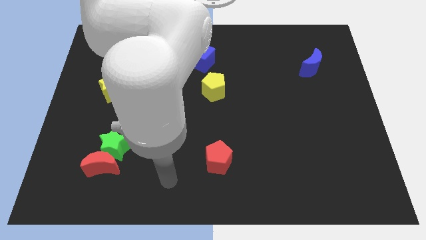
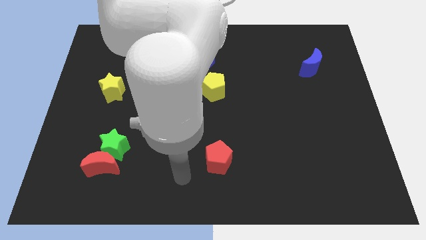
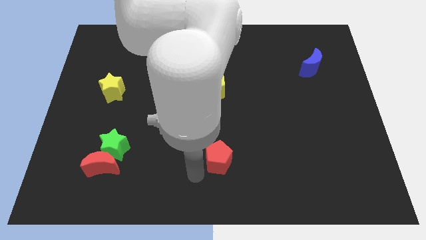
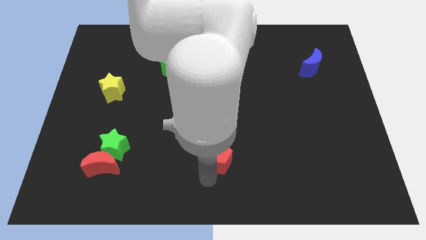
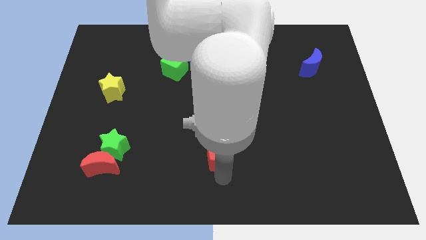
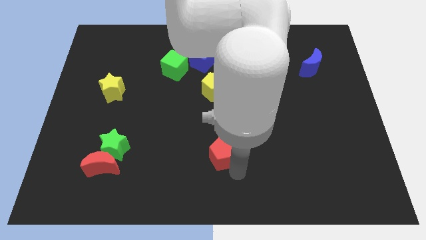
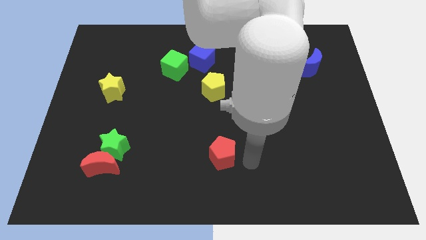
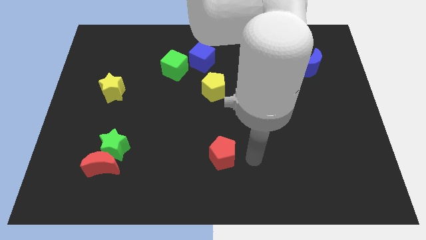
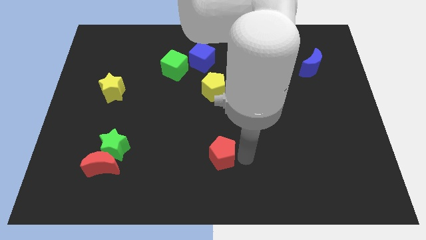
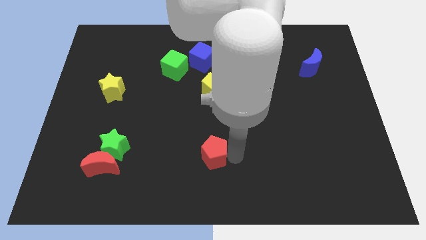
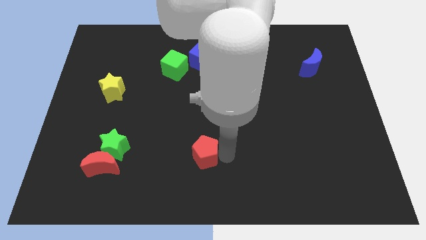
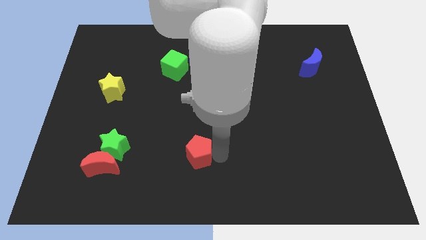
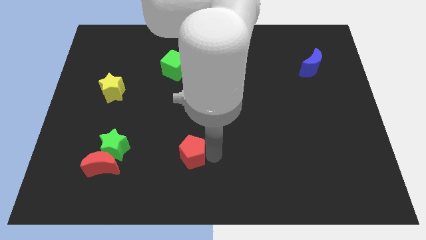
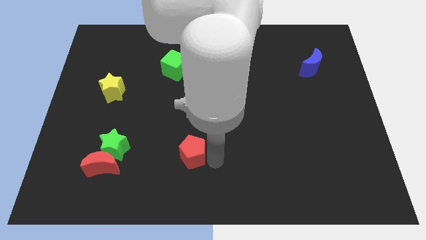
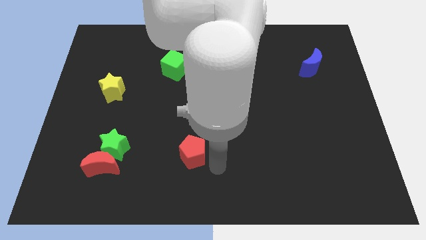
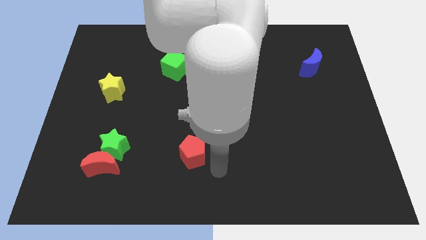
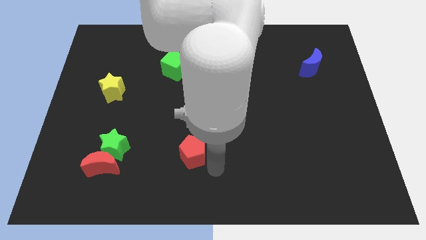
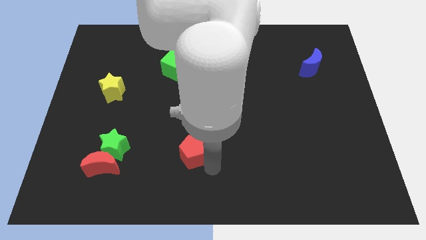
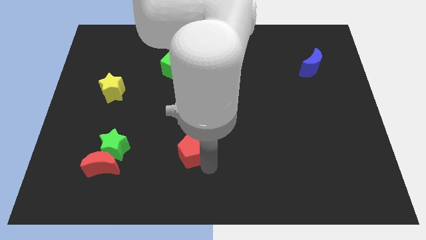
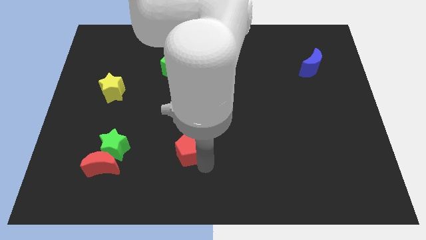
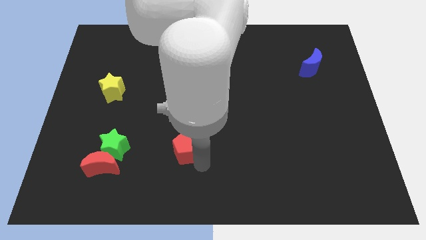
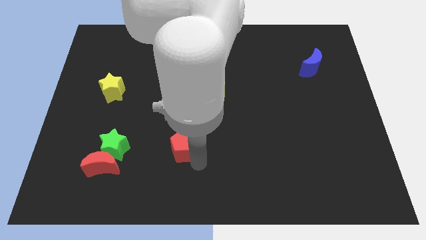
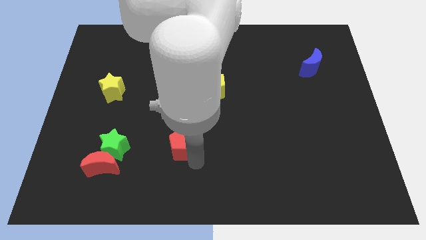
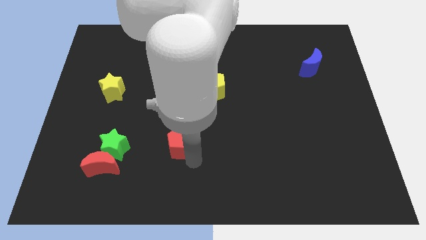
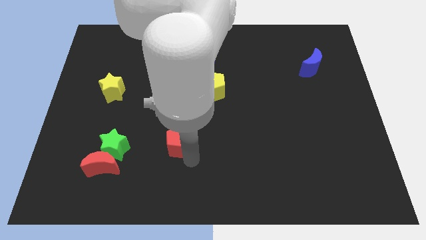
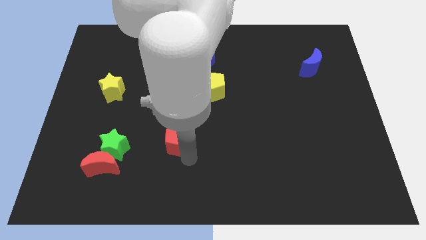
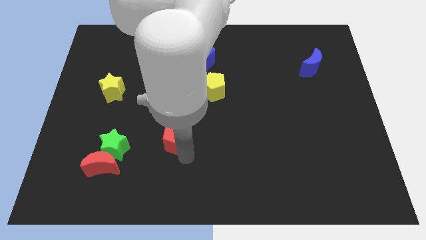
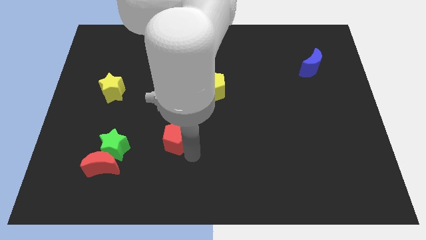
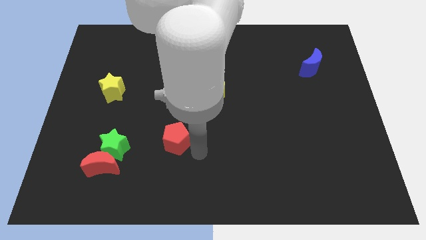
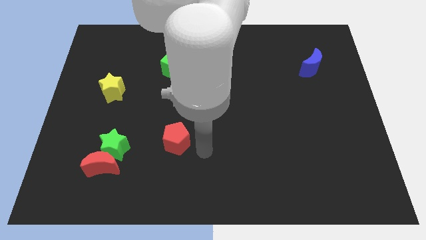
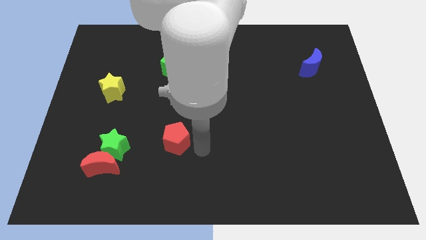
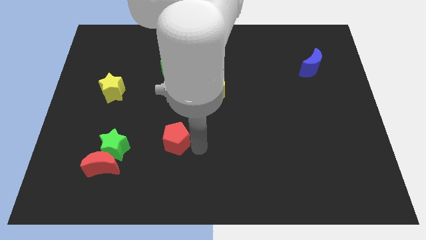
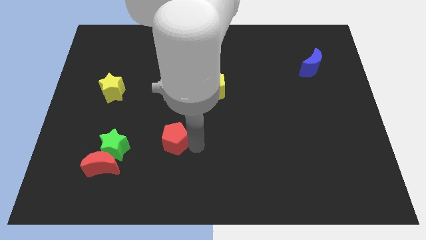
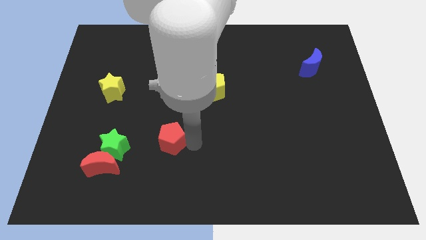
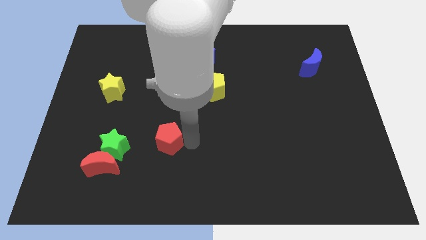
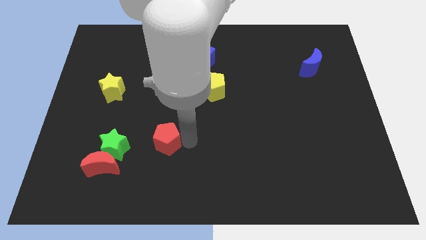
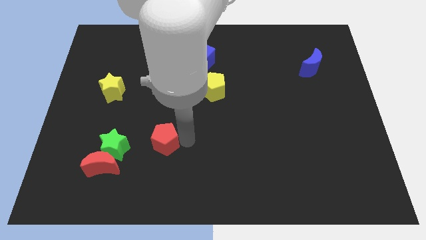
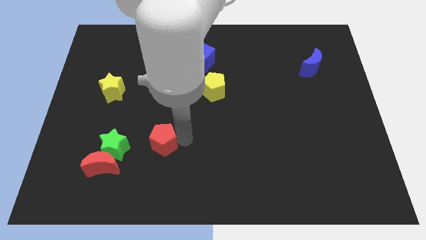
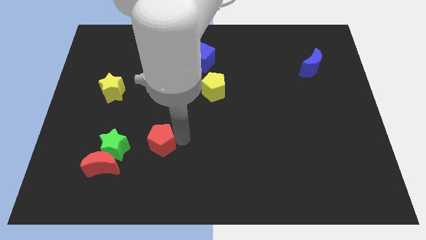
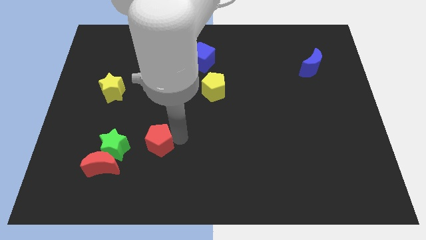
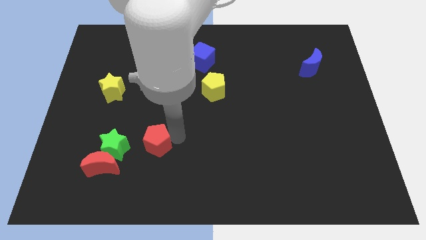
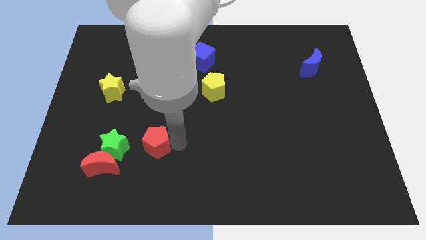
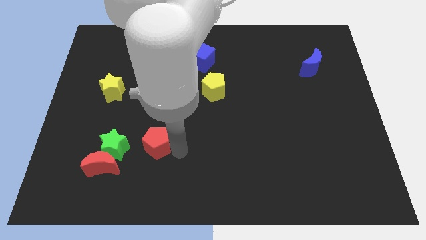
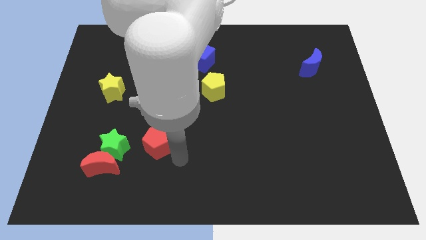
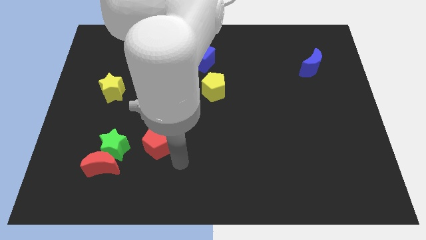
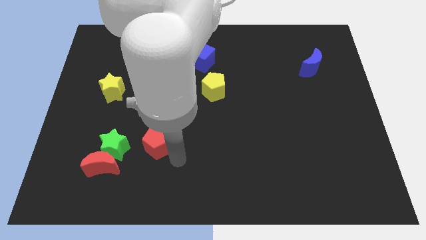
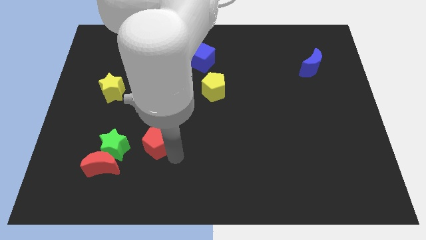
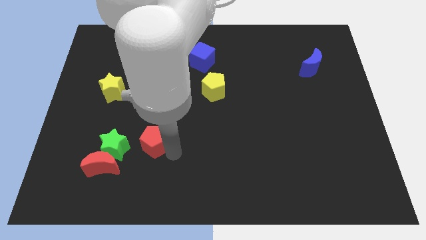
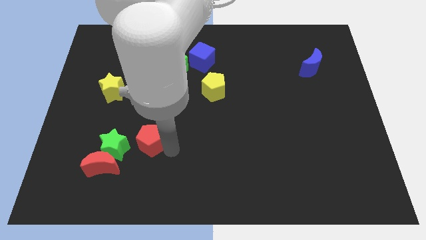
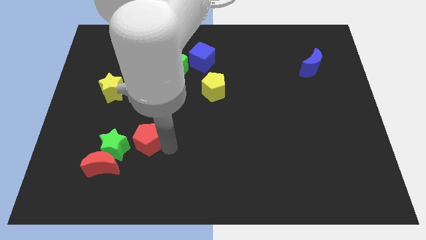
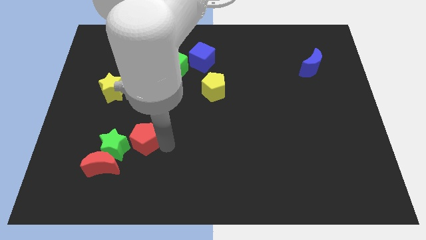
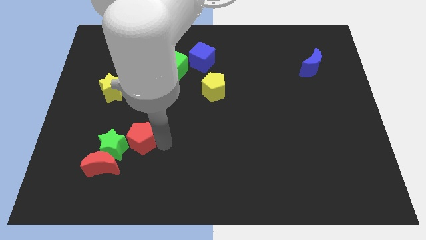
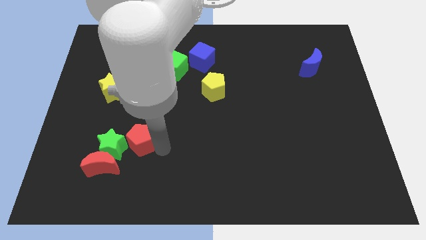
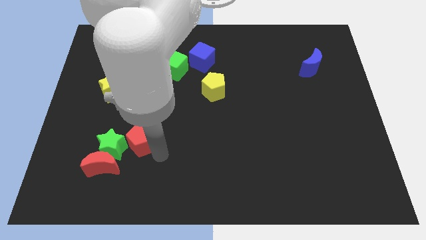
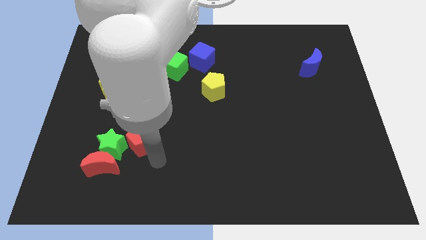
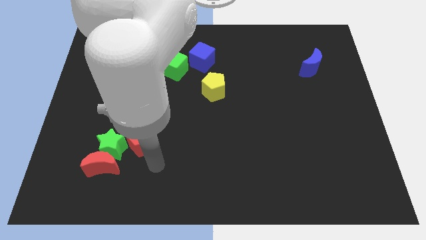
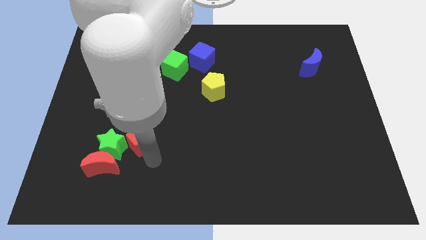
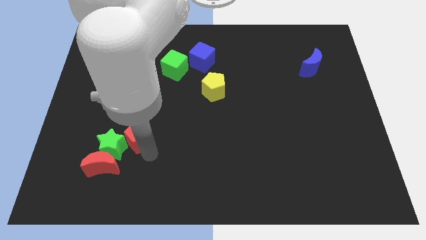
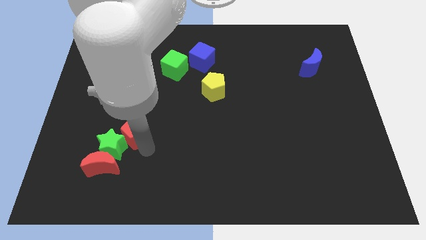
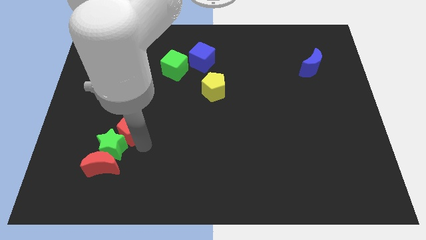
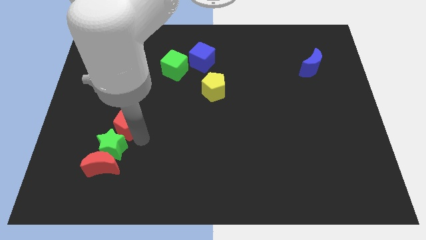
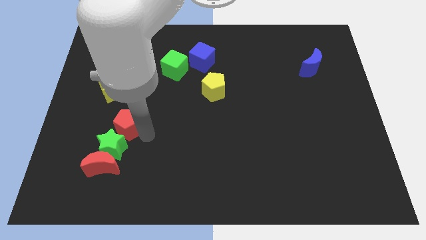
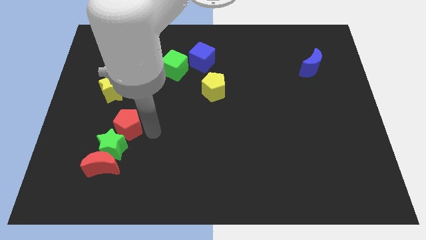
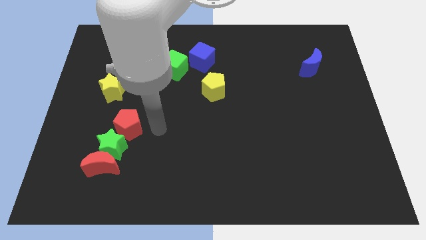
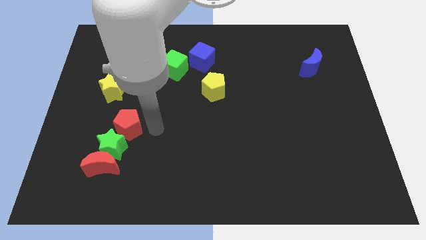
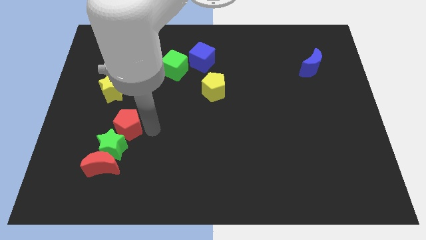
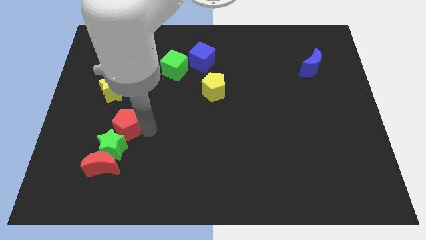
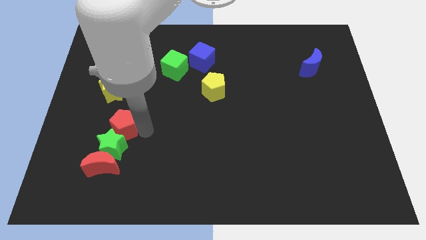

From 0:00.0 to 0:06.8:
move the red pentagon to the bottom side of the yellow star

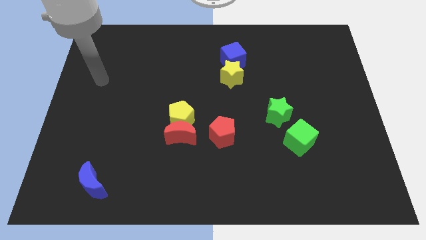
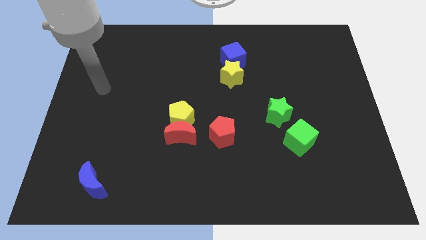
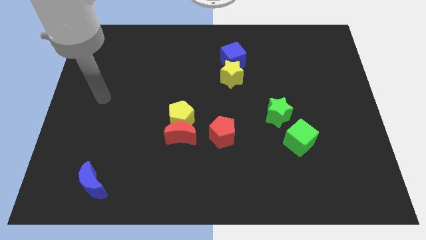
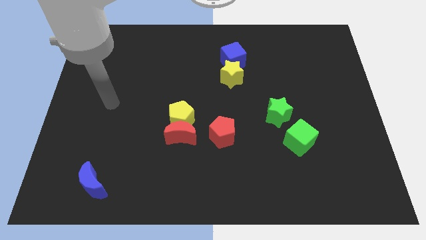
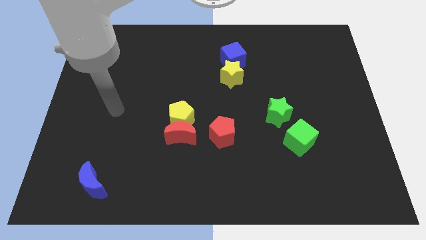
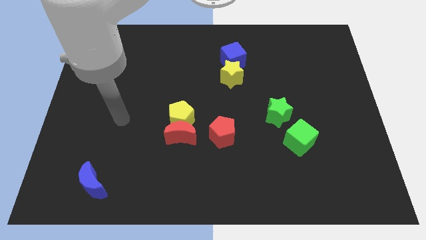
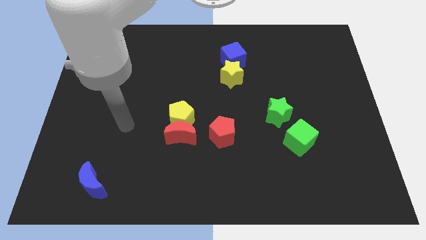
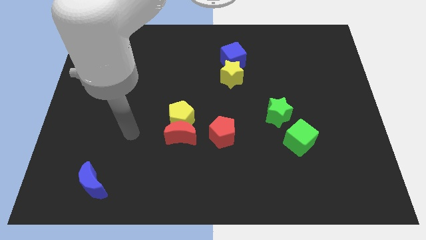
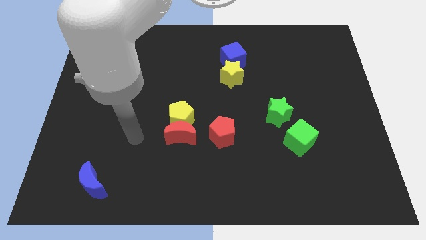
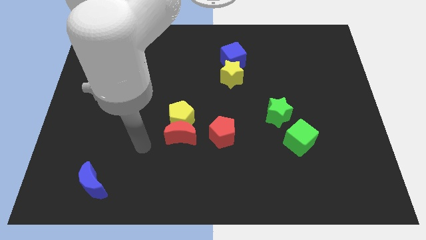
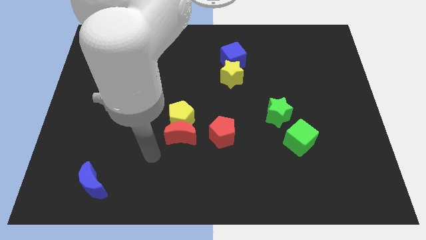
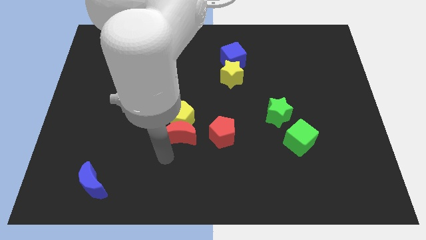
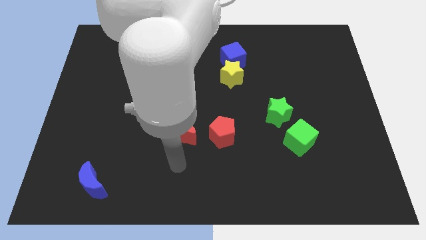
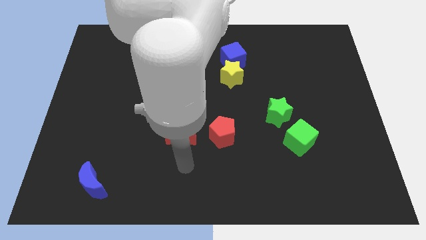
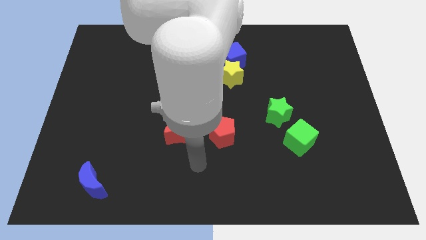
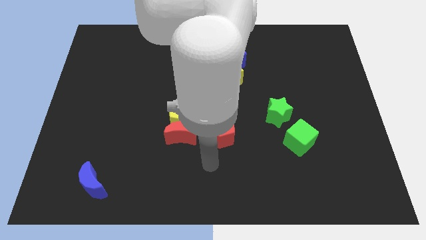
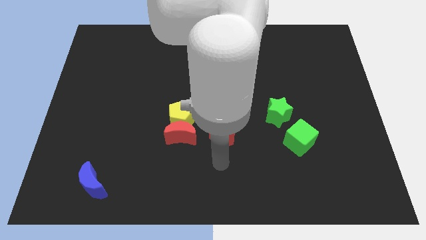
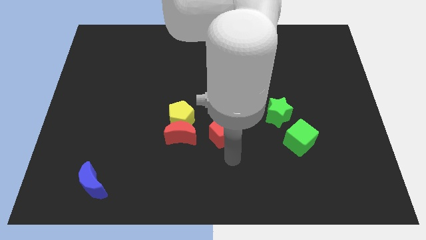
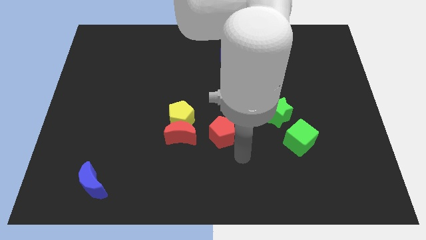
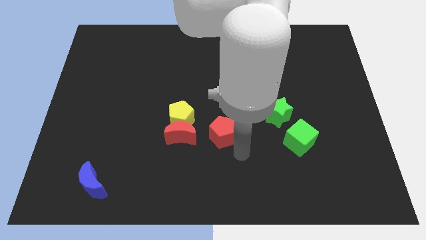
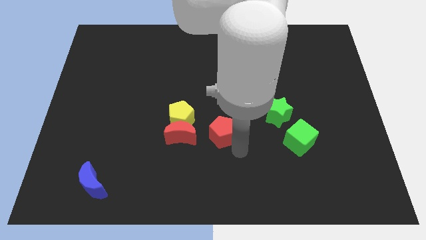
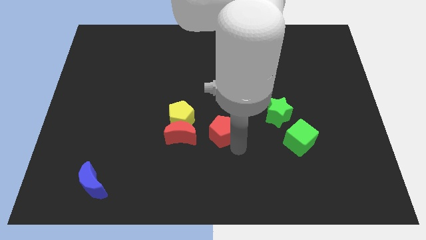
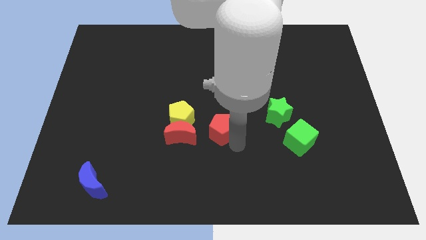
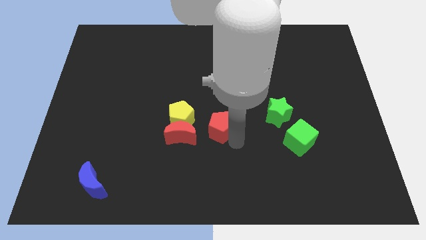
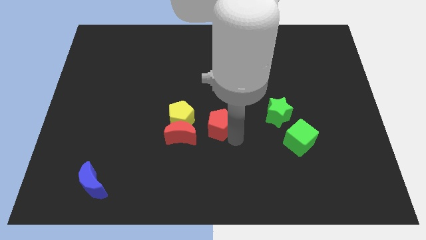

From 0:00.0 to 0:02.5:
slide the red pentagon diagonally up and to the right of the red moon
